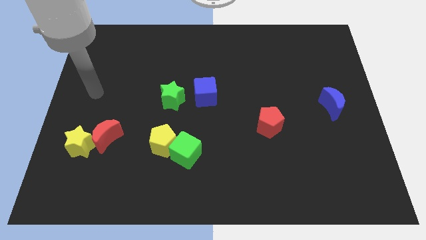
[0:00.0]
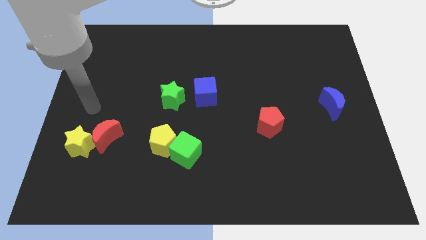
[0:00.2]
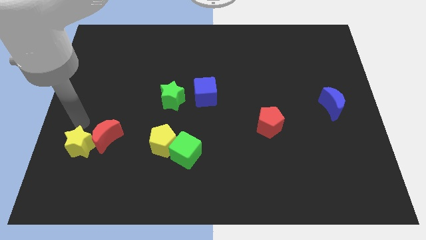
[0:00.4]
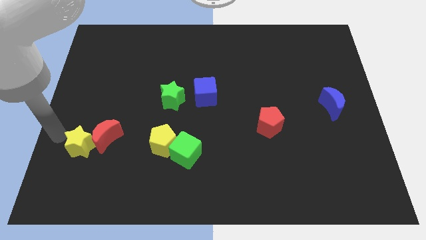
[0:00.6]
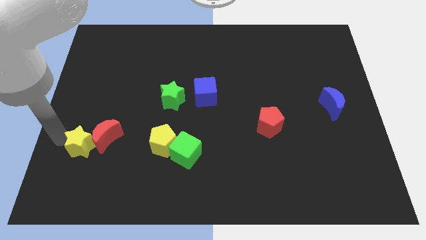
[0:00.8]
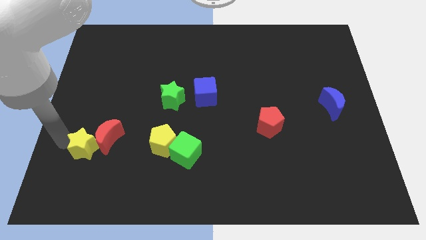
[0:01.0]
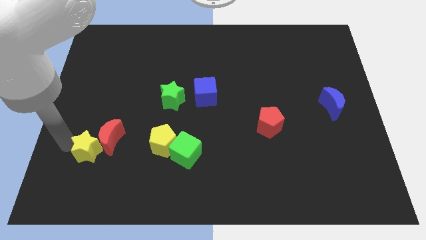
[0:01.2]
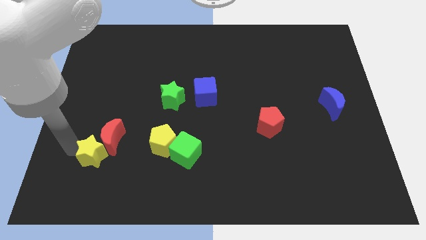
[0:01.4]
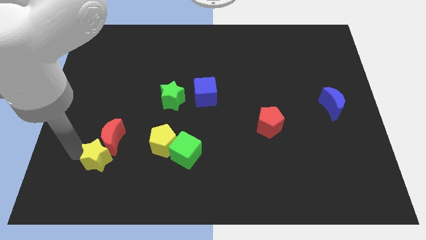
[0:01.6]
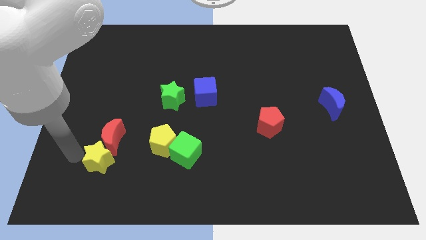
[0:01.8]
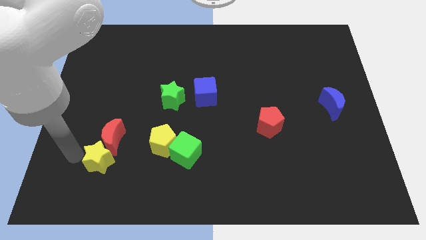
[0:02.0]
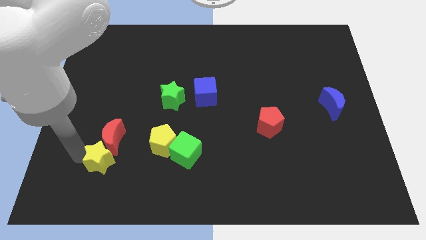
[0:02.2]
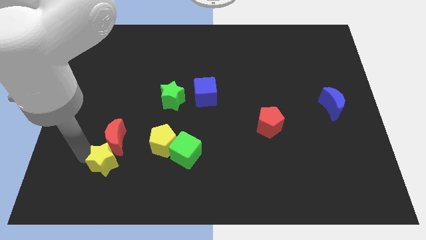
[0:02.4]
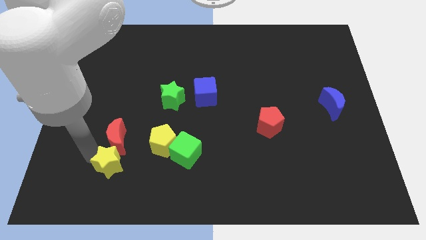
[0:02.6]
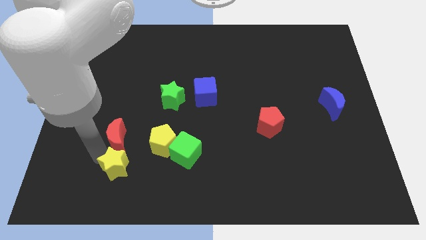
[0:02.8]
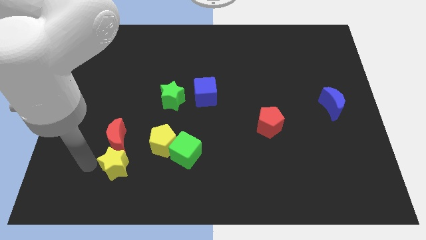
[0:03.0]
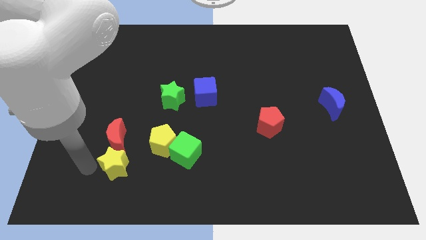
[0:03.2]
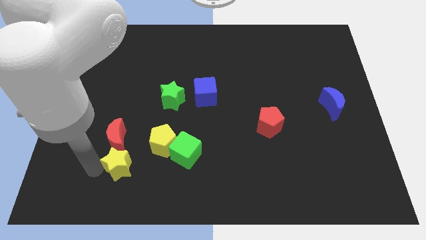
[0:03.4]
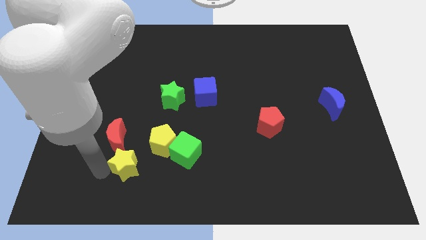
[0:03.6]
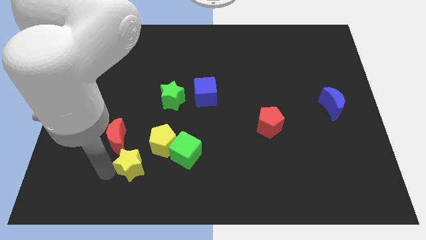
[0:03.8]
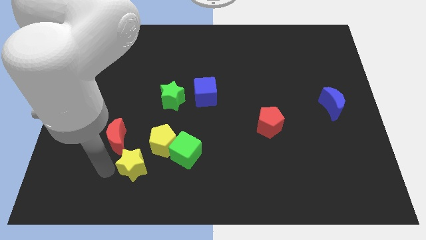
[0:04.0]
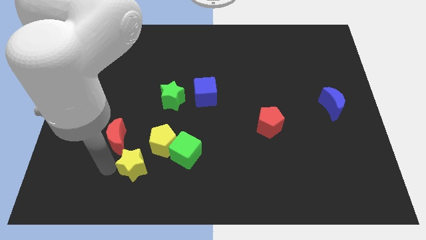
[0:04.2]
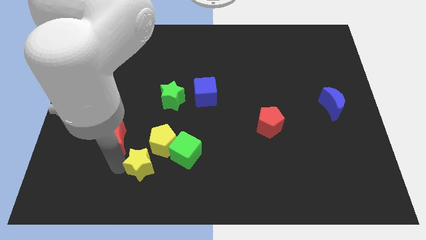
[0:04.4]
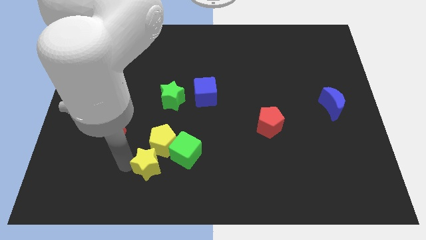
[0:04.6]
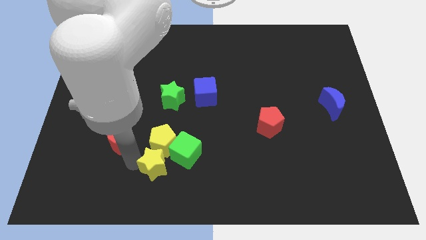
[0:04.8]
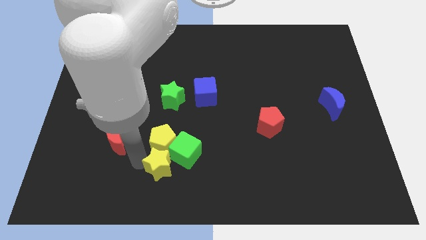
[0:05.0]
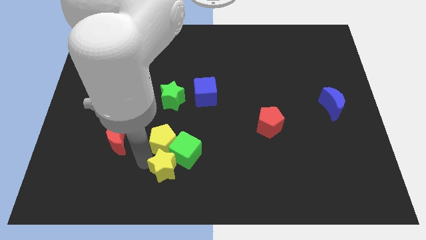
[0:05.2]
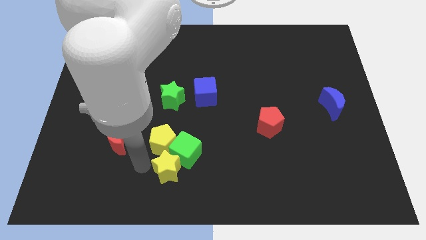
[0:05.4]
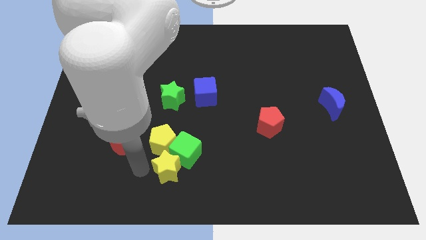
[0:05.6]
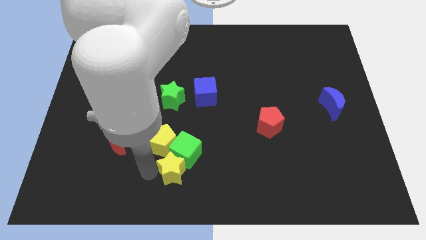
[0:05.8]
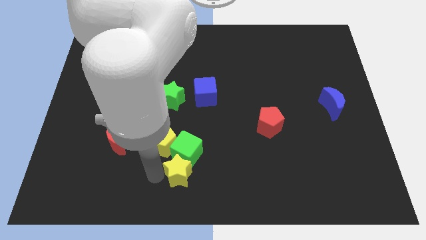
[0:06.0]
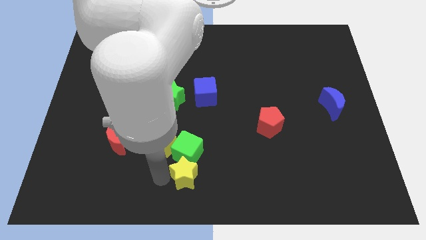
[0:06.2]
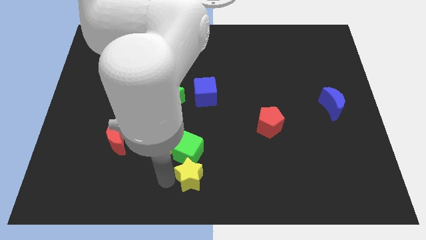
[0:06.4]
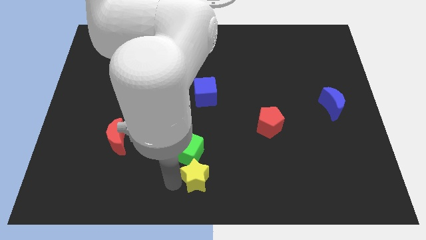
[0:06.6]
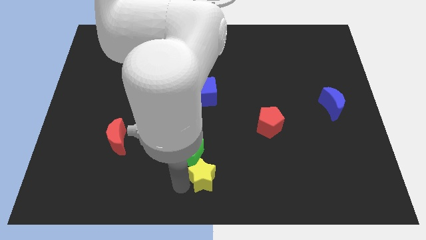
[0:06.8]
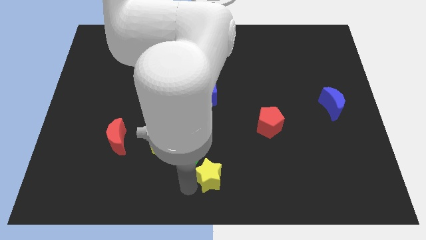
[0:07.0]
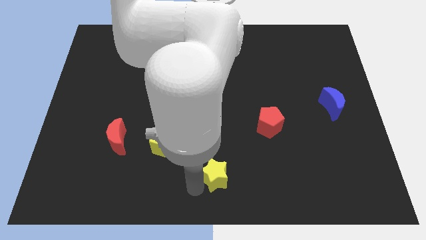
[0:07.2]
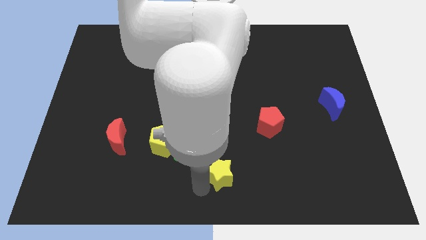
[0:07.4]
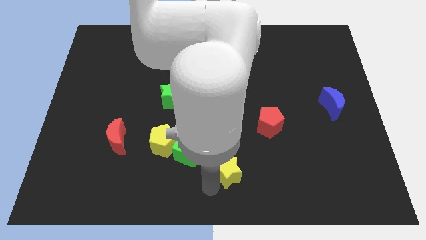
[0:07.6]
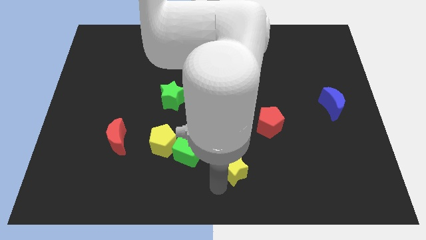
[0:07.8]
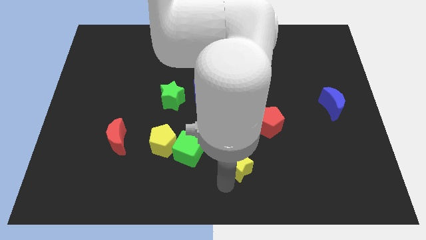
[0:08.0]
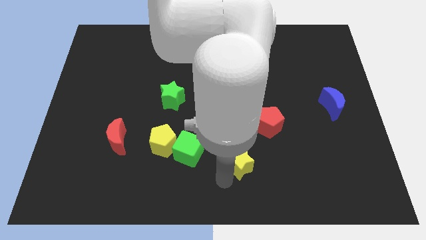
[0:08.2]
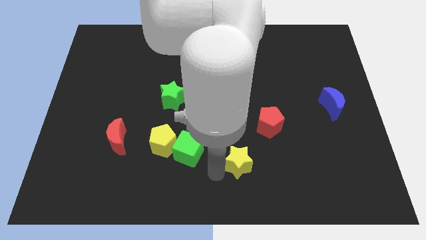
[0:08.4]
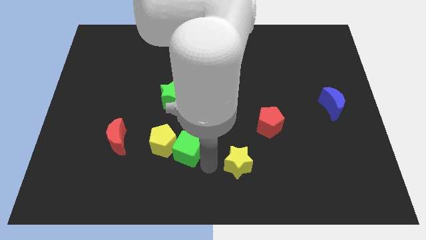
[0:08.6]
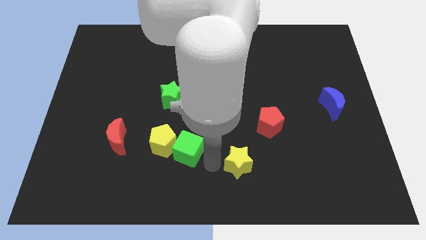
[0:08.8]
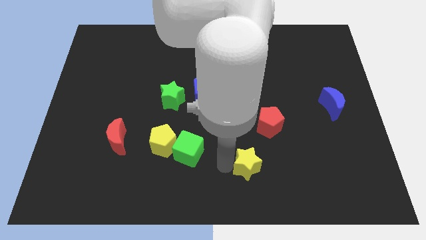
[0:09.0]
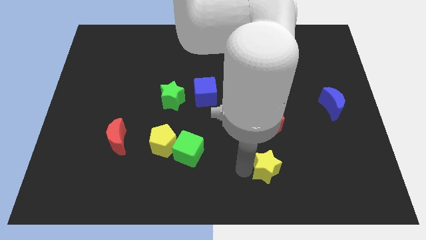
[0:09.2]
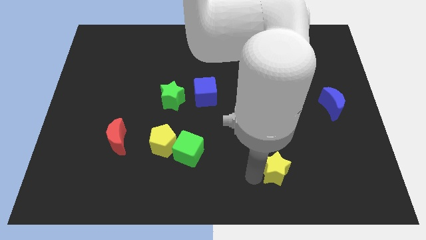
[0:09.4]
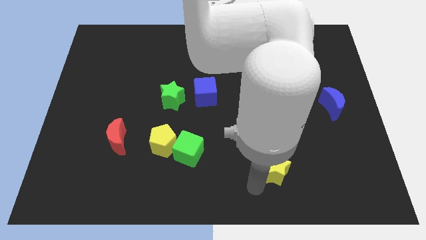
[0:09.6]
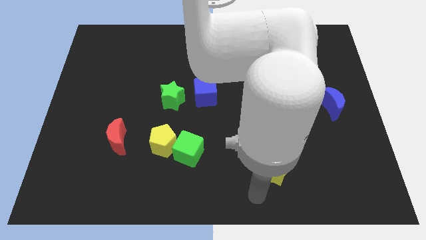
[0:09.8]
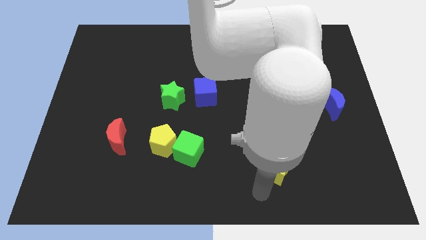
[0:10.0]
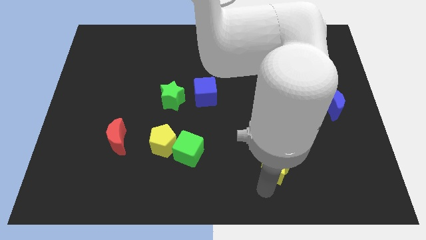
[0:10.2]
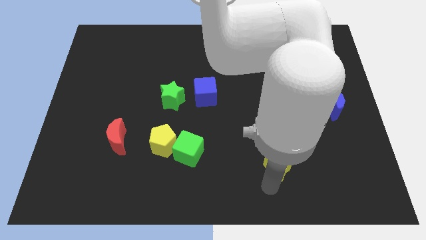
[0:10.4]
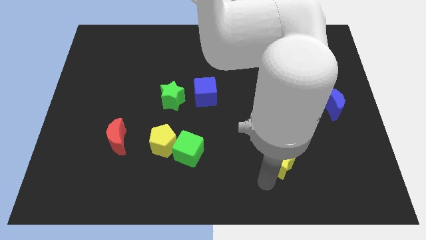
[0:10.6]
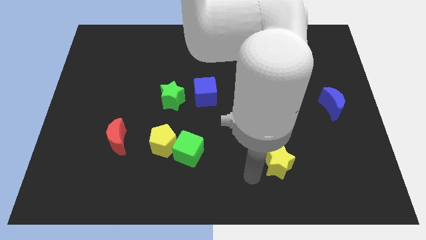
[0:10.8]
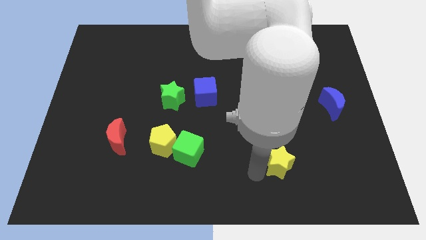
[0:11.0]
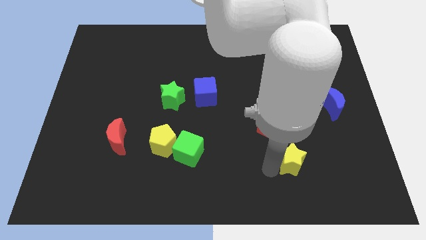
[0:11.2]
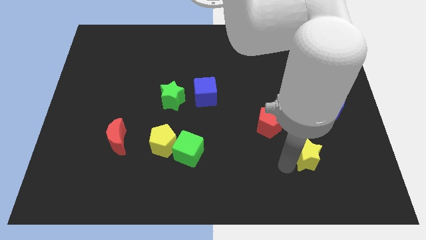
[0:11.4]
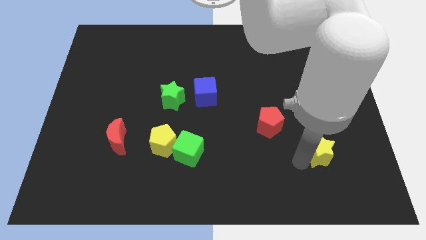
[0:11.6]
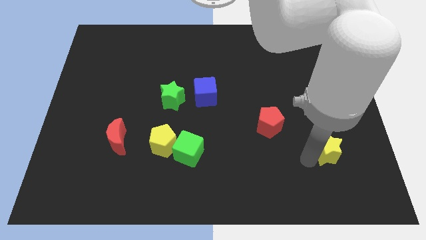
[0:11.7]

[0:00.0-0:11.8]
put the yellow star to the bottom of the blue moon

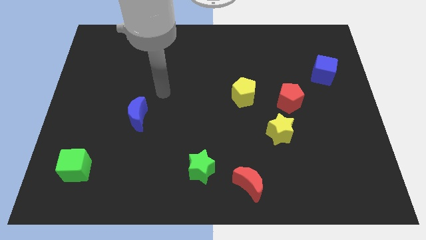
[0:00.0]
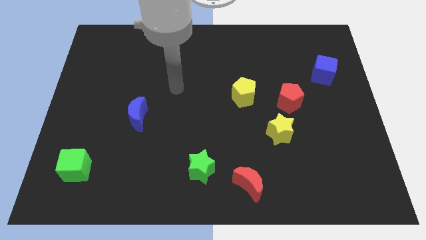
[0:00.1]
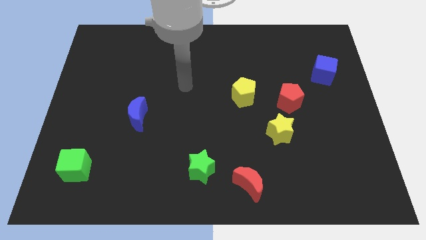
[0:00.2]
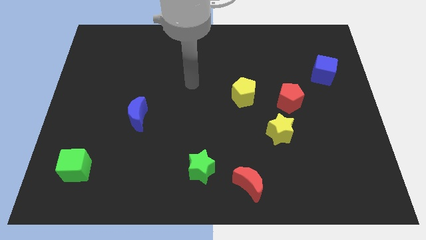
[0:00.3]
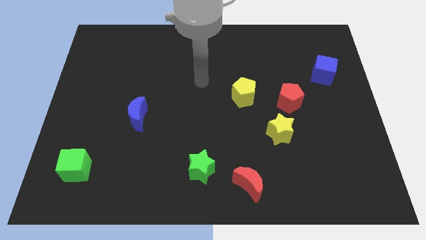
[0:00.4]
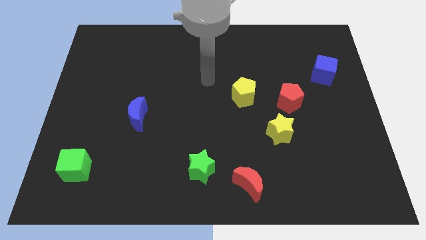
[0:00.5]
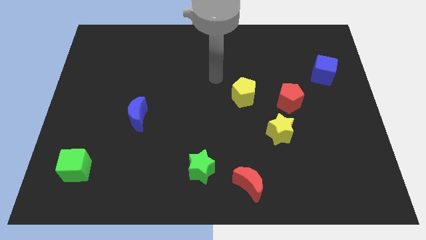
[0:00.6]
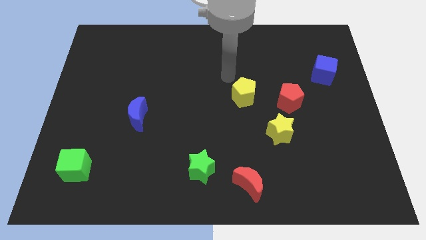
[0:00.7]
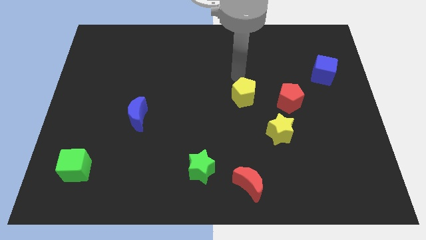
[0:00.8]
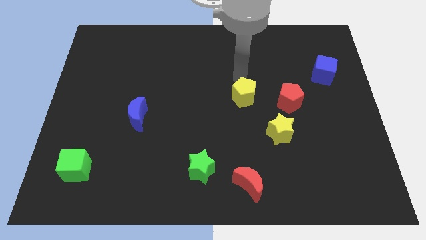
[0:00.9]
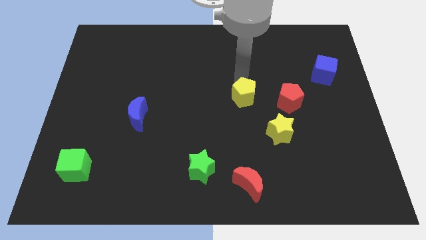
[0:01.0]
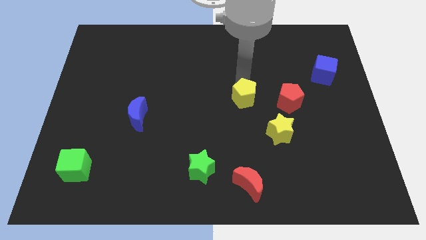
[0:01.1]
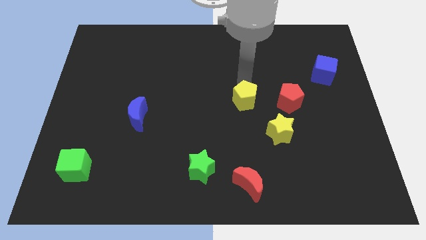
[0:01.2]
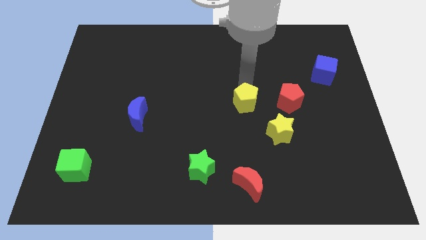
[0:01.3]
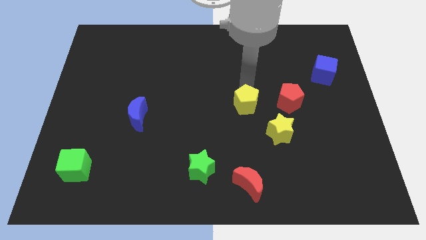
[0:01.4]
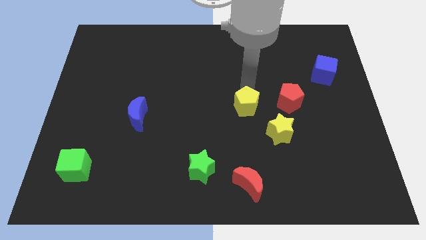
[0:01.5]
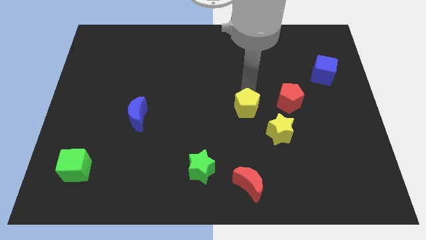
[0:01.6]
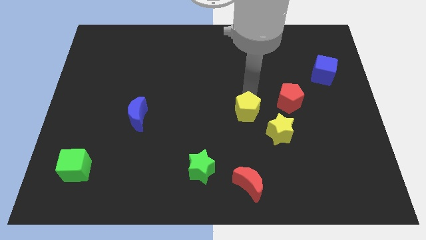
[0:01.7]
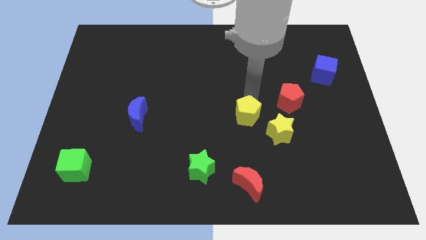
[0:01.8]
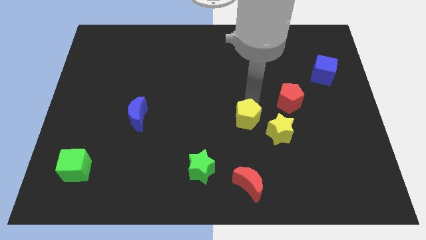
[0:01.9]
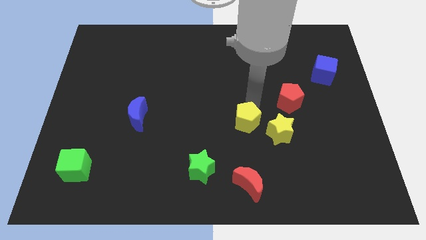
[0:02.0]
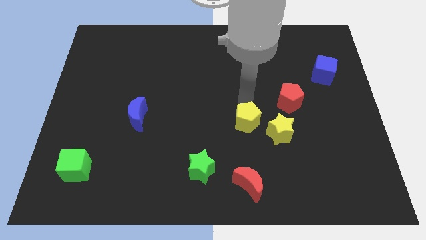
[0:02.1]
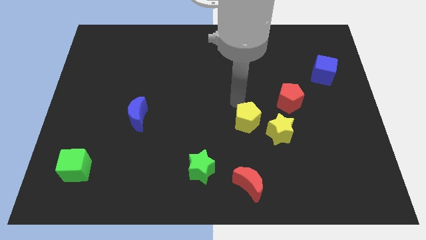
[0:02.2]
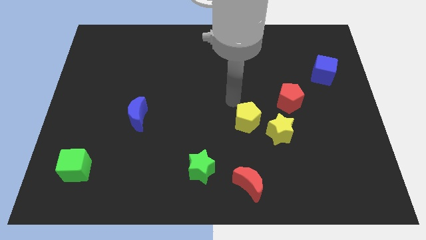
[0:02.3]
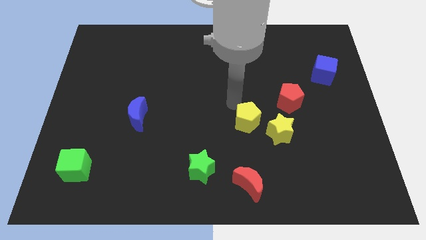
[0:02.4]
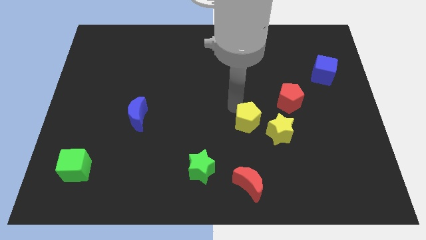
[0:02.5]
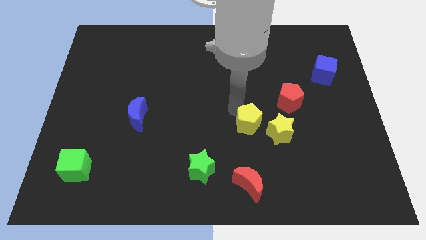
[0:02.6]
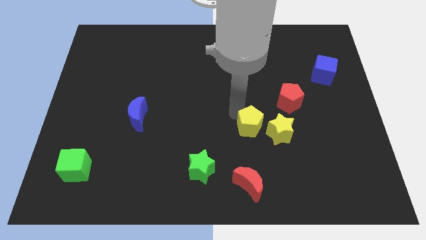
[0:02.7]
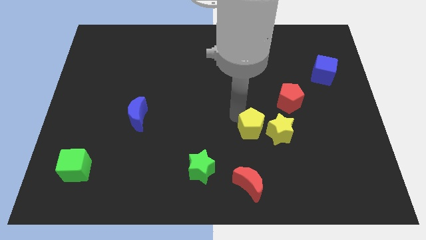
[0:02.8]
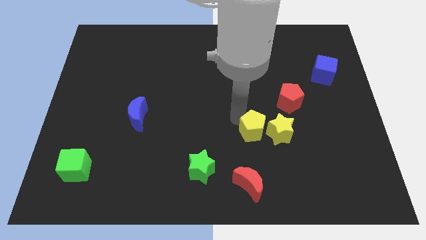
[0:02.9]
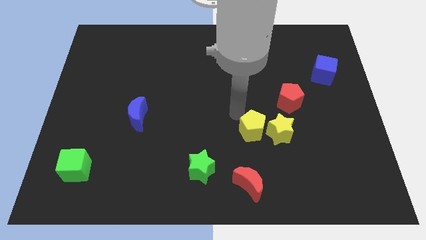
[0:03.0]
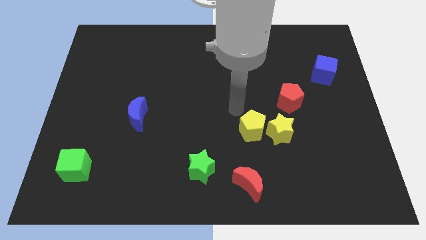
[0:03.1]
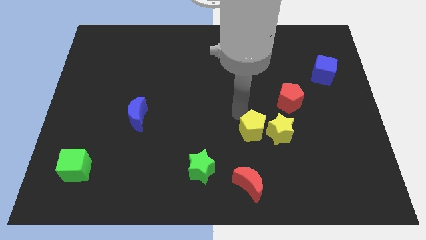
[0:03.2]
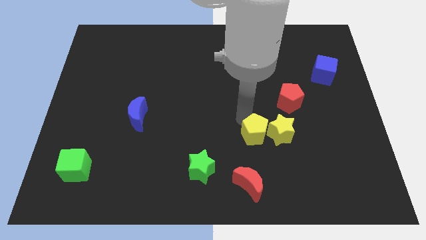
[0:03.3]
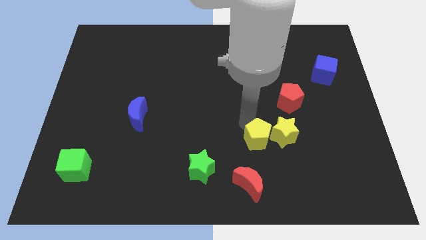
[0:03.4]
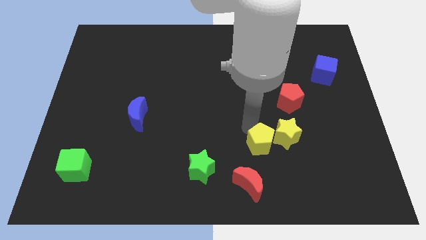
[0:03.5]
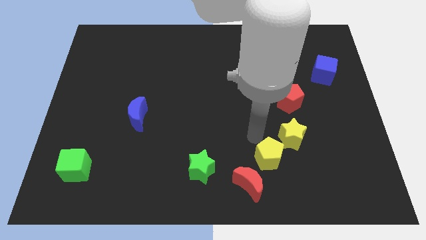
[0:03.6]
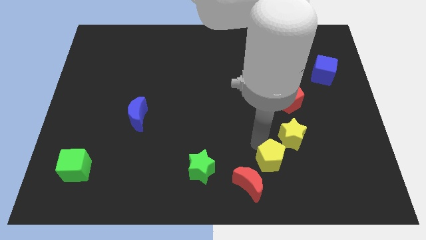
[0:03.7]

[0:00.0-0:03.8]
push the yellow pentagon to the bottom of the yellow star
